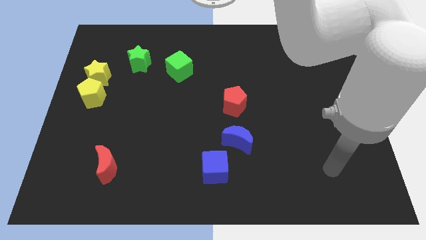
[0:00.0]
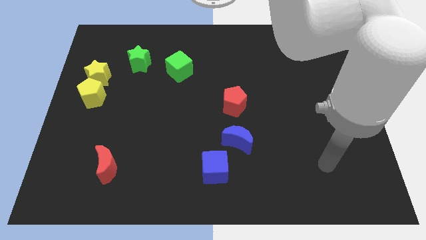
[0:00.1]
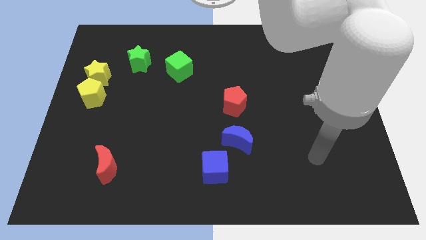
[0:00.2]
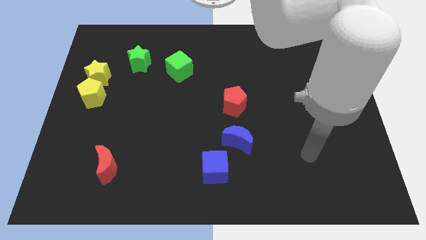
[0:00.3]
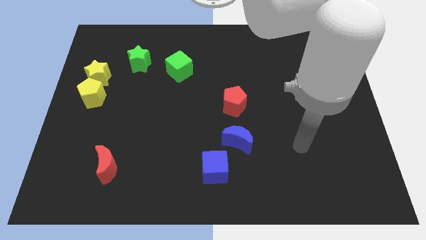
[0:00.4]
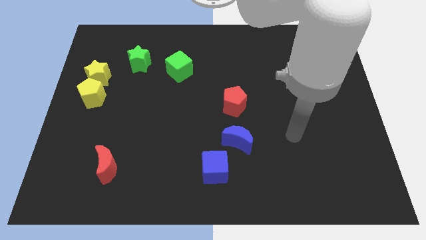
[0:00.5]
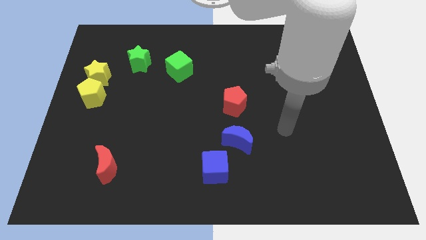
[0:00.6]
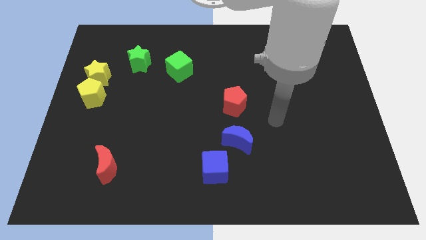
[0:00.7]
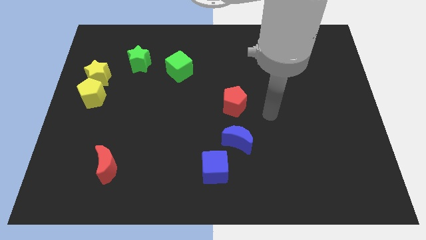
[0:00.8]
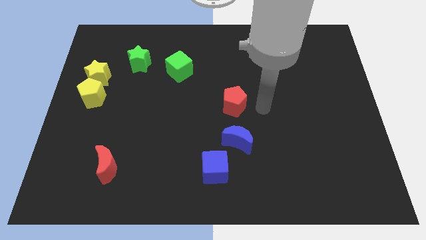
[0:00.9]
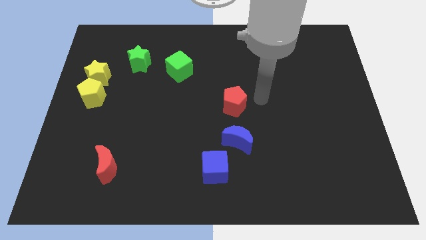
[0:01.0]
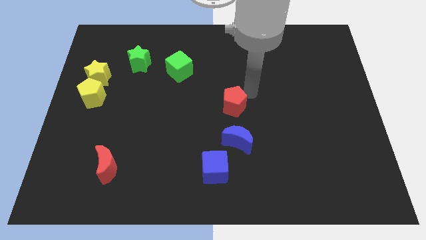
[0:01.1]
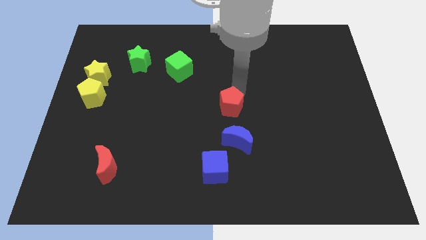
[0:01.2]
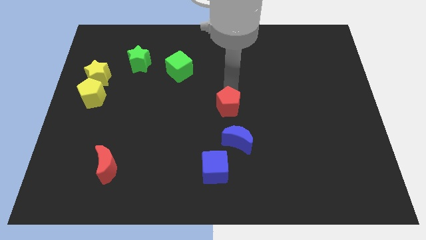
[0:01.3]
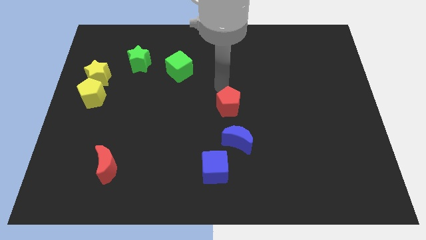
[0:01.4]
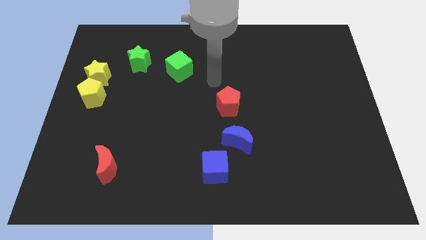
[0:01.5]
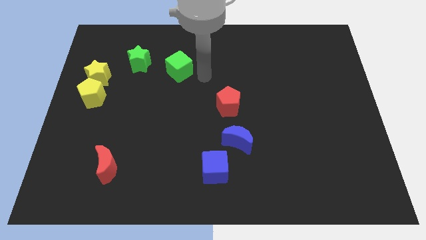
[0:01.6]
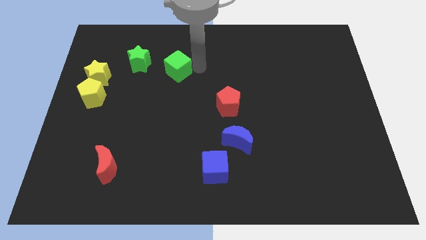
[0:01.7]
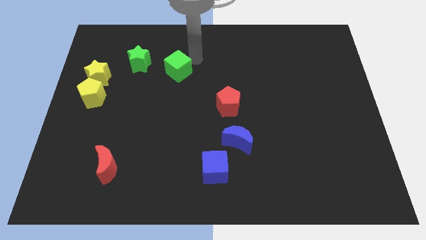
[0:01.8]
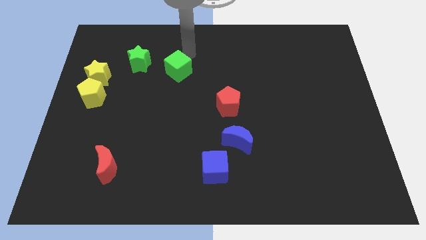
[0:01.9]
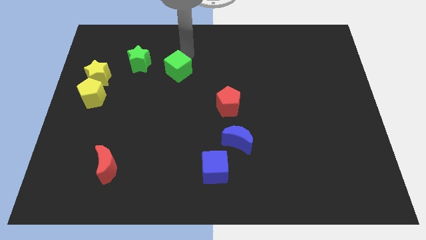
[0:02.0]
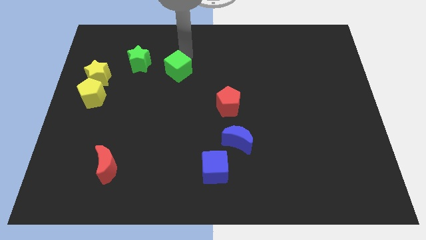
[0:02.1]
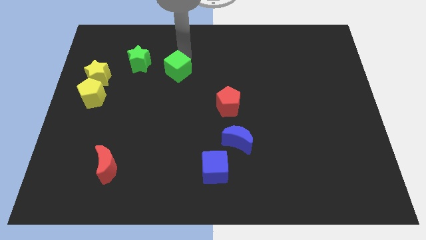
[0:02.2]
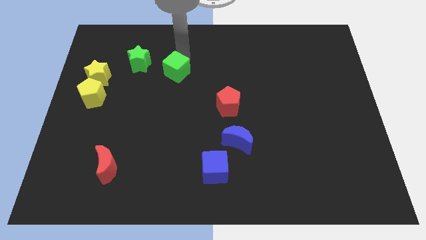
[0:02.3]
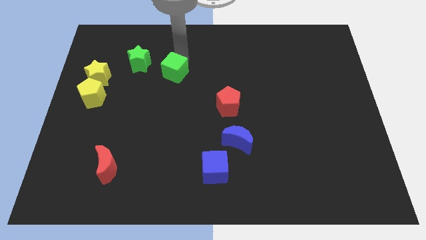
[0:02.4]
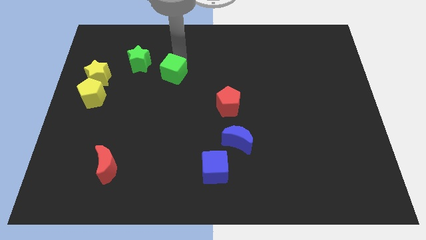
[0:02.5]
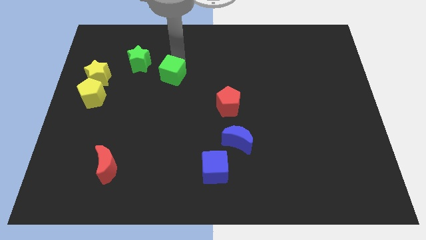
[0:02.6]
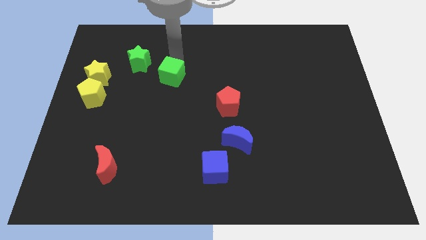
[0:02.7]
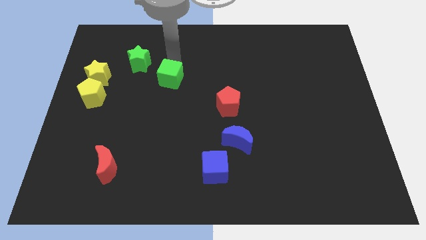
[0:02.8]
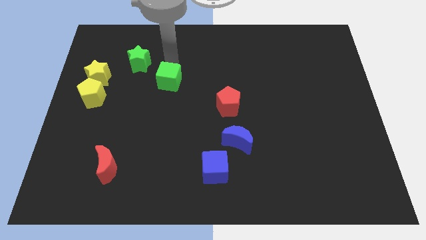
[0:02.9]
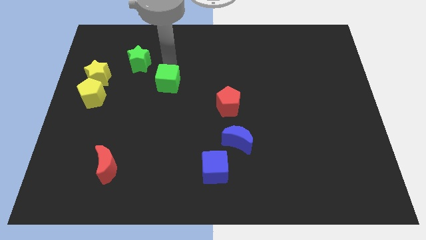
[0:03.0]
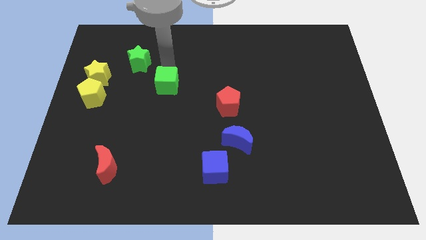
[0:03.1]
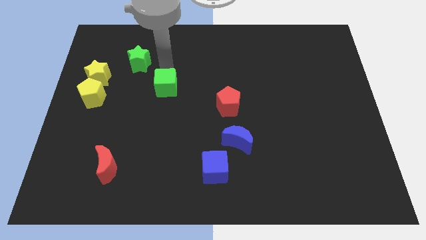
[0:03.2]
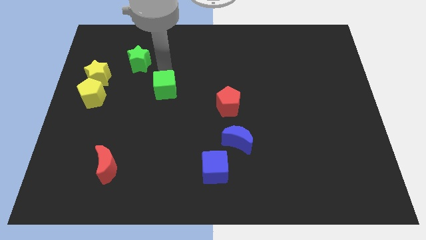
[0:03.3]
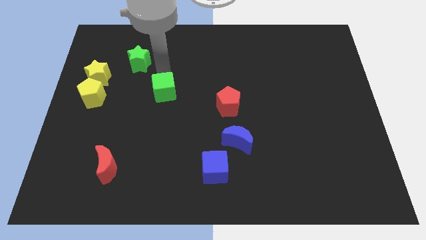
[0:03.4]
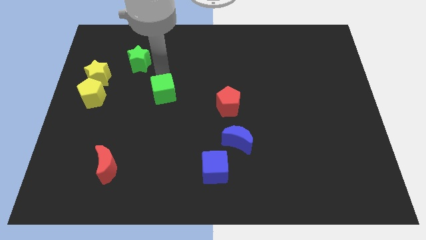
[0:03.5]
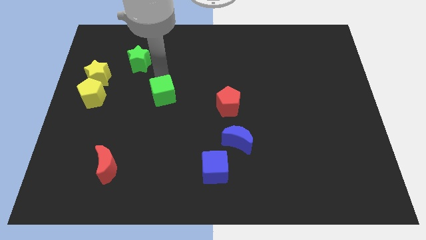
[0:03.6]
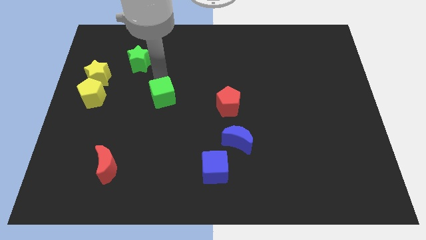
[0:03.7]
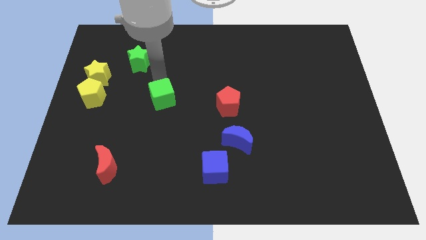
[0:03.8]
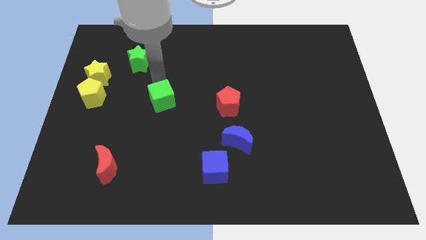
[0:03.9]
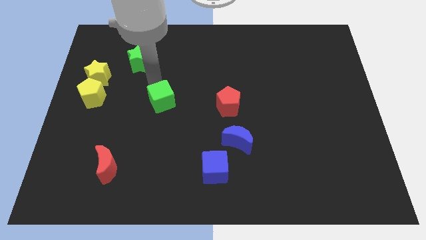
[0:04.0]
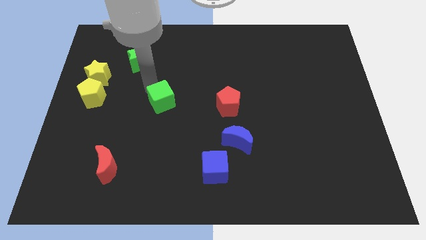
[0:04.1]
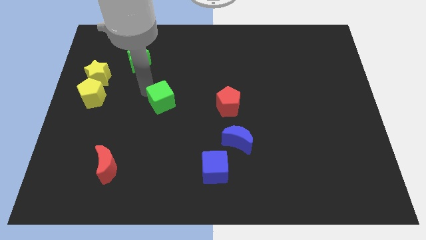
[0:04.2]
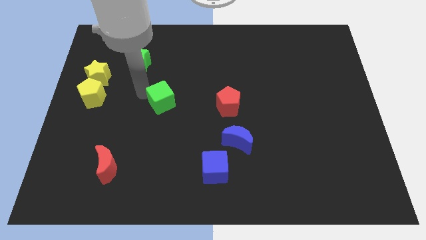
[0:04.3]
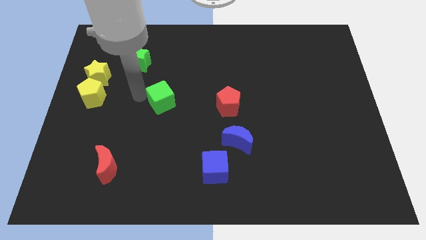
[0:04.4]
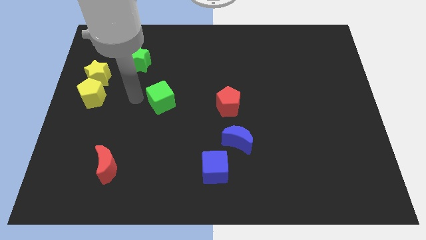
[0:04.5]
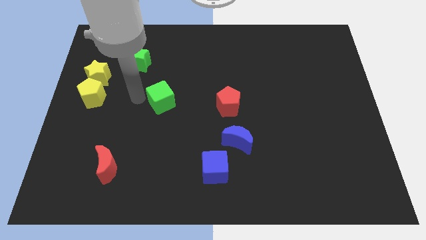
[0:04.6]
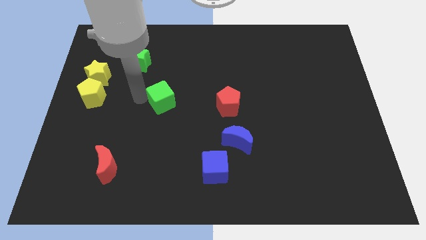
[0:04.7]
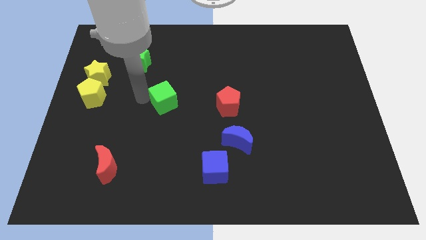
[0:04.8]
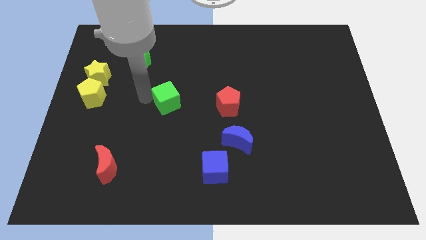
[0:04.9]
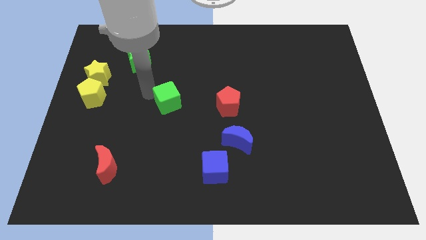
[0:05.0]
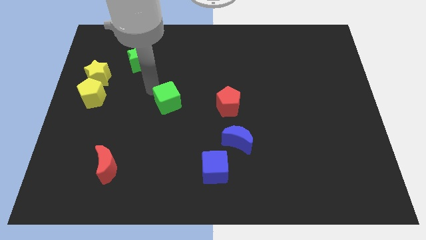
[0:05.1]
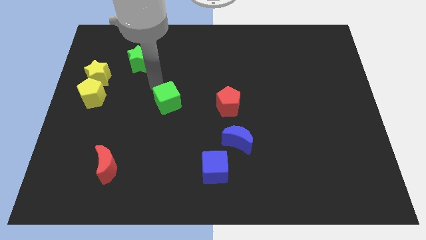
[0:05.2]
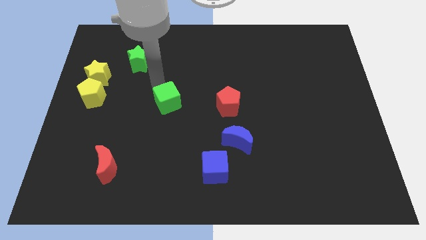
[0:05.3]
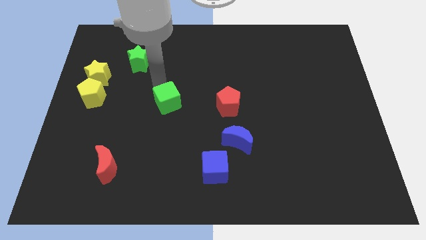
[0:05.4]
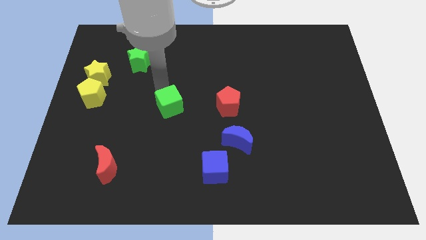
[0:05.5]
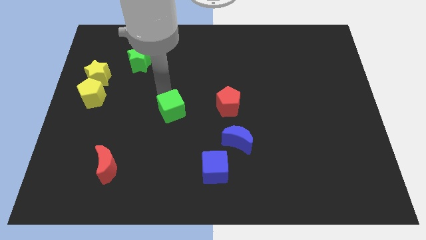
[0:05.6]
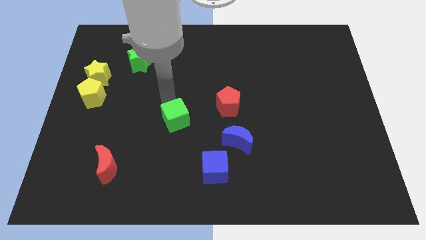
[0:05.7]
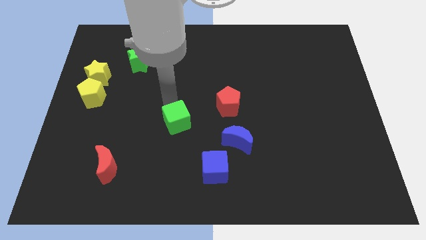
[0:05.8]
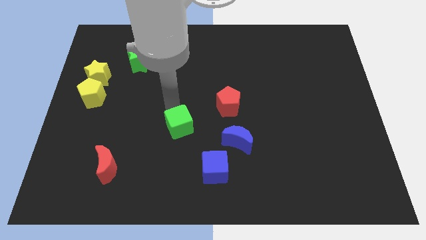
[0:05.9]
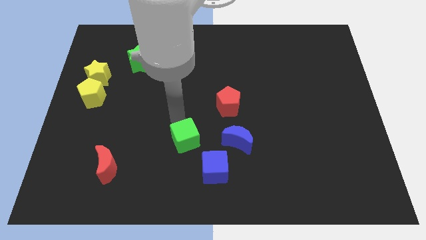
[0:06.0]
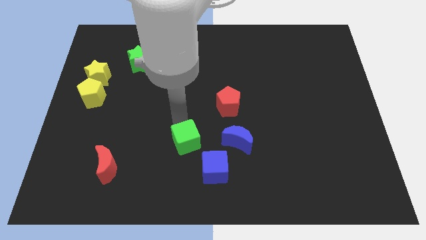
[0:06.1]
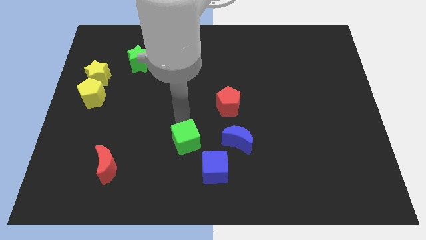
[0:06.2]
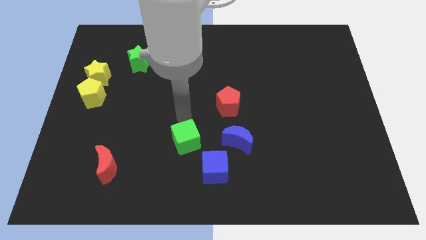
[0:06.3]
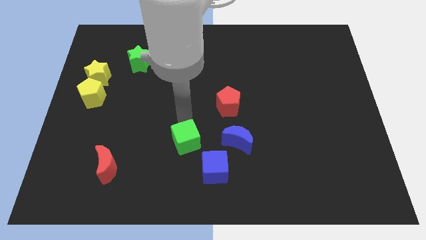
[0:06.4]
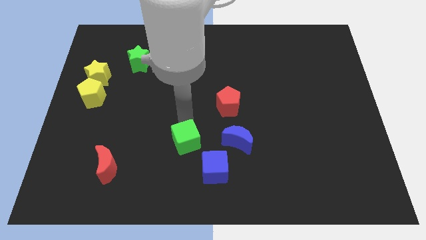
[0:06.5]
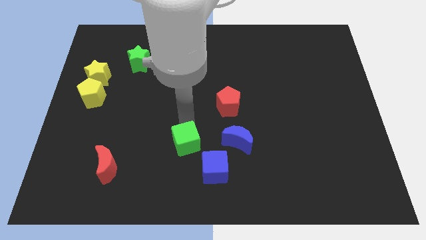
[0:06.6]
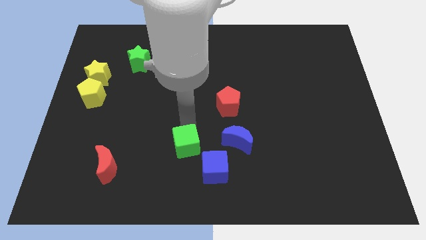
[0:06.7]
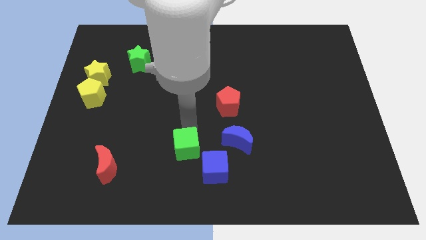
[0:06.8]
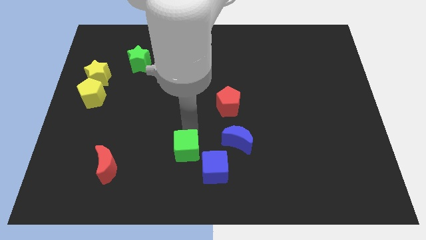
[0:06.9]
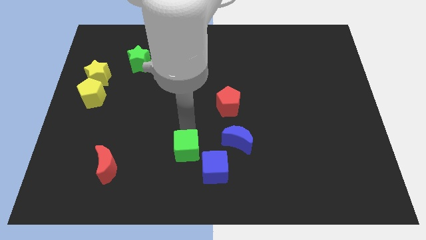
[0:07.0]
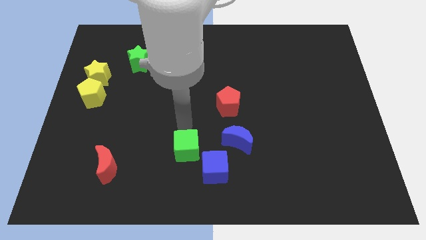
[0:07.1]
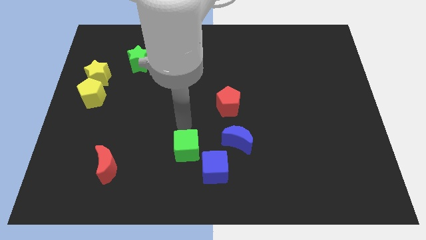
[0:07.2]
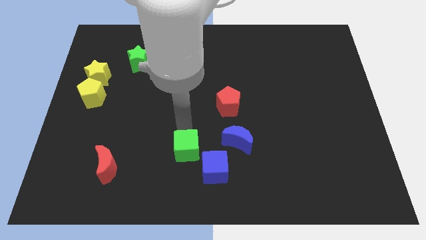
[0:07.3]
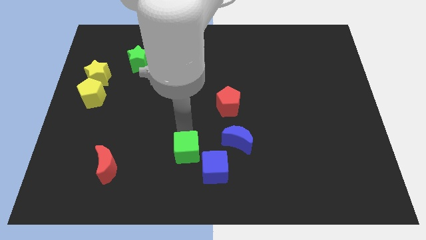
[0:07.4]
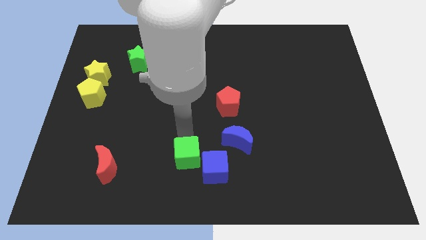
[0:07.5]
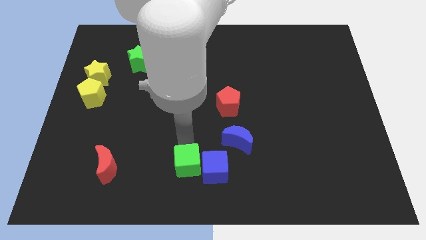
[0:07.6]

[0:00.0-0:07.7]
push the green cube to the bottom side
